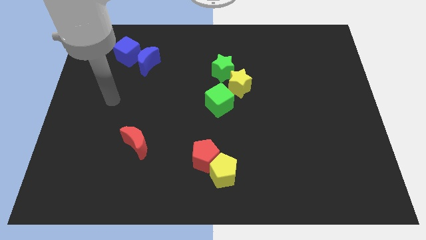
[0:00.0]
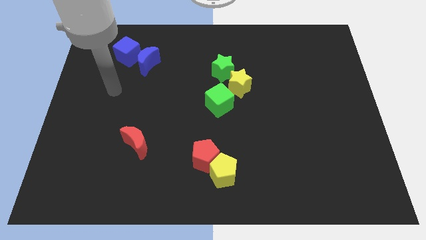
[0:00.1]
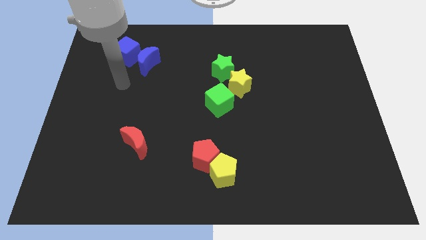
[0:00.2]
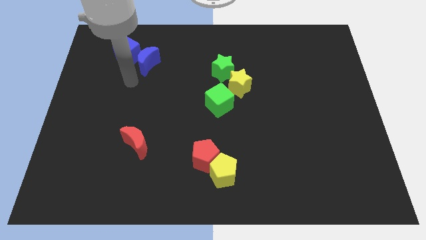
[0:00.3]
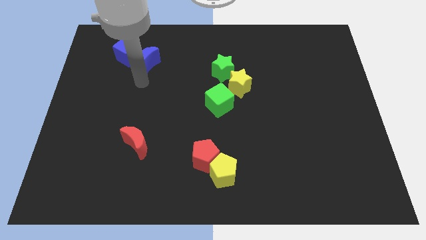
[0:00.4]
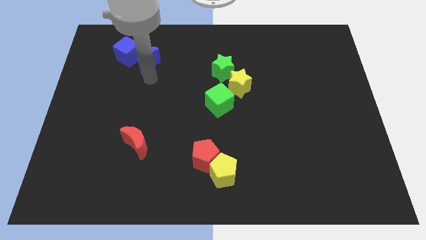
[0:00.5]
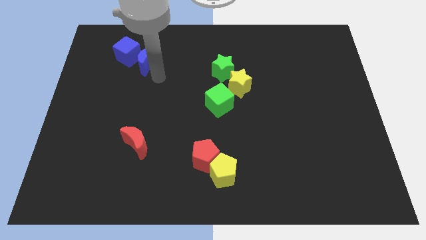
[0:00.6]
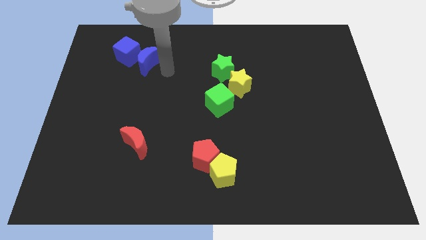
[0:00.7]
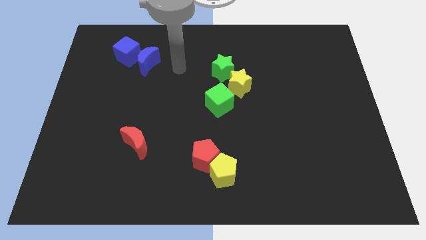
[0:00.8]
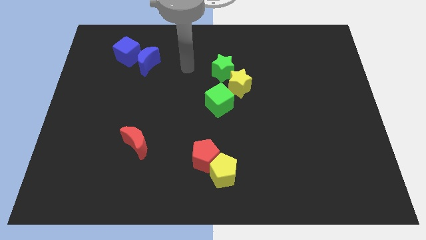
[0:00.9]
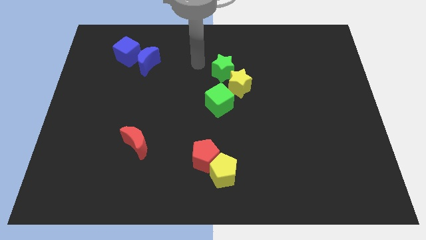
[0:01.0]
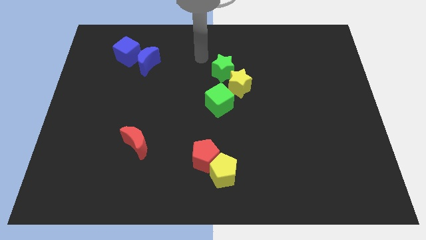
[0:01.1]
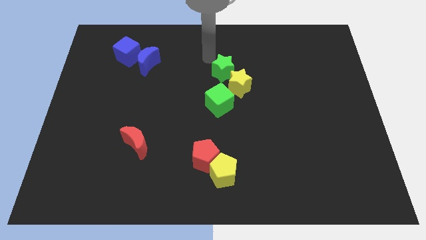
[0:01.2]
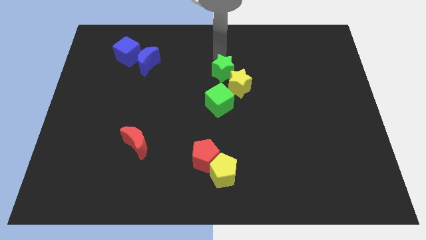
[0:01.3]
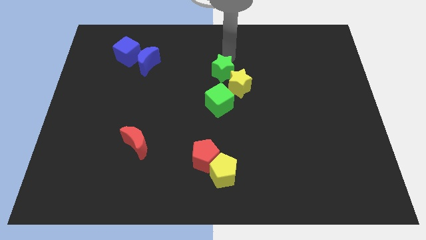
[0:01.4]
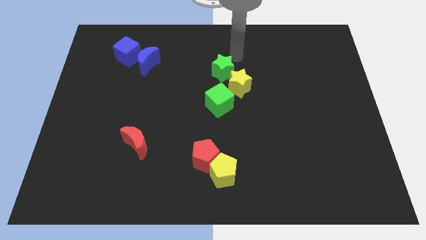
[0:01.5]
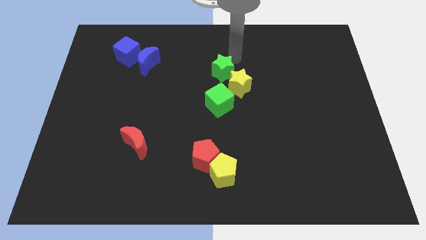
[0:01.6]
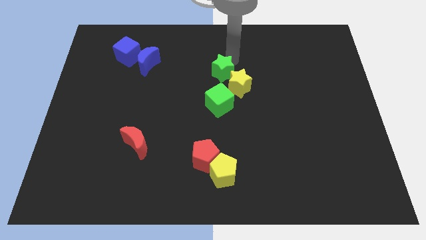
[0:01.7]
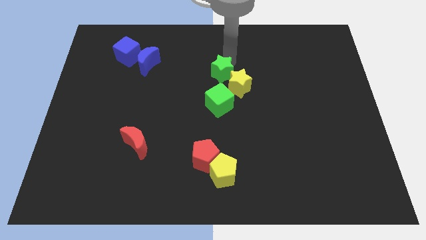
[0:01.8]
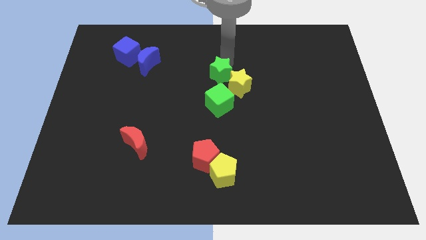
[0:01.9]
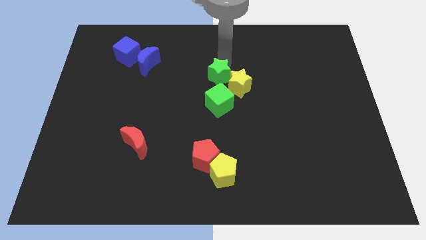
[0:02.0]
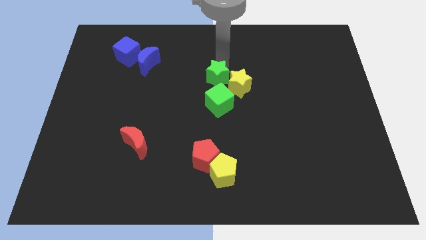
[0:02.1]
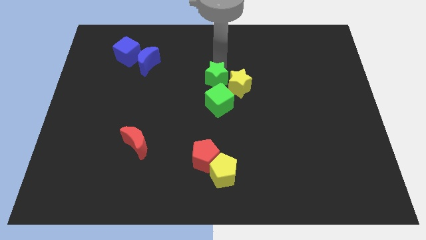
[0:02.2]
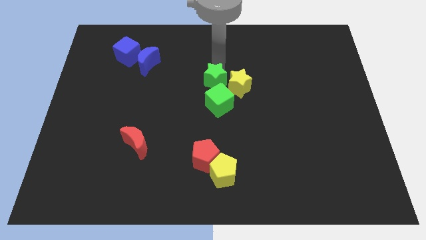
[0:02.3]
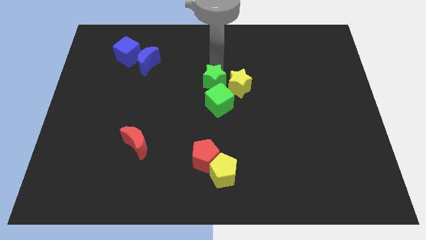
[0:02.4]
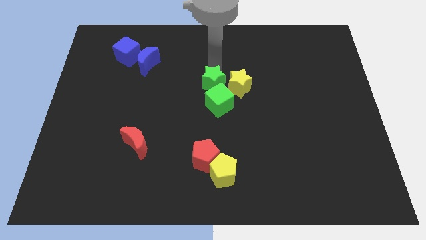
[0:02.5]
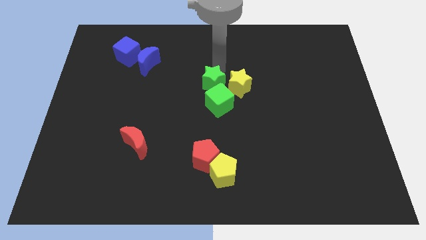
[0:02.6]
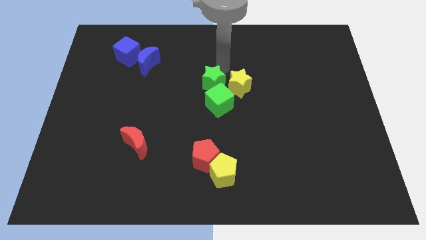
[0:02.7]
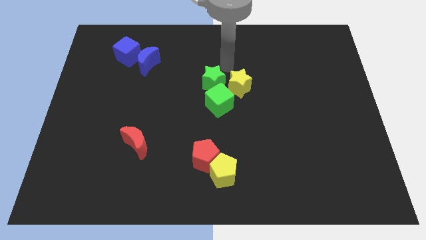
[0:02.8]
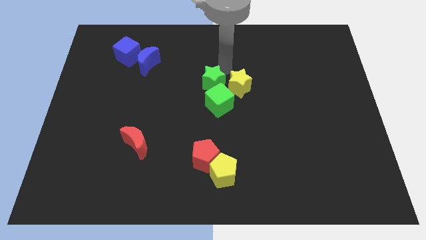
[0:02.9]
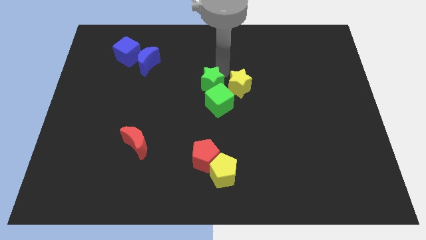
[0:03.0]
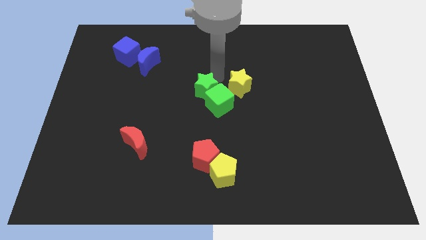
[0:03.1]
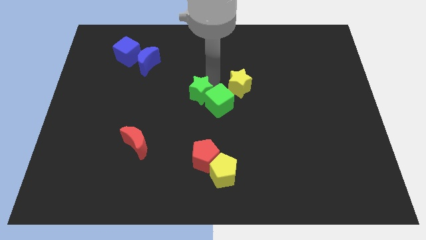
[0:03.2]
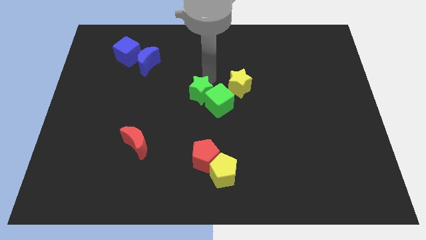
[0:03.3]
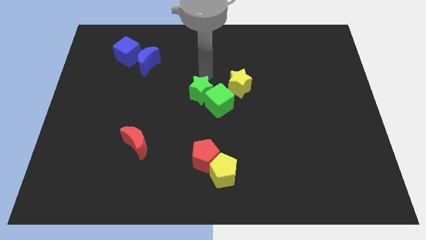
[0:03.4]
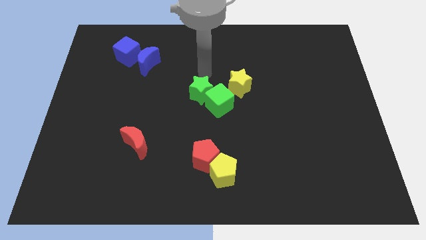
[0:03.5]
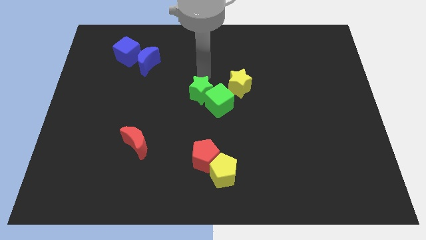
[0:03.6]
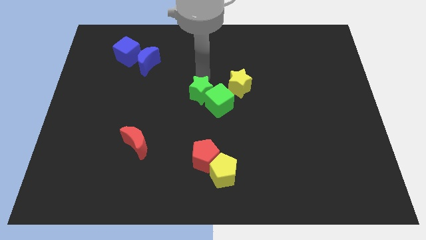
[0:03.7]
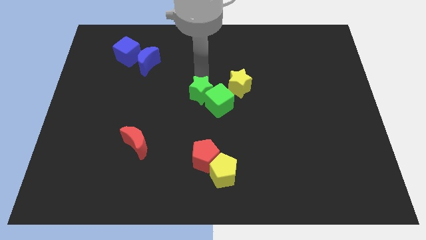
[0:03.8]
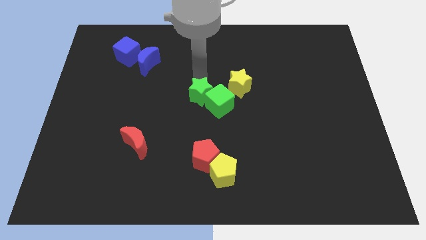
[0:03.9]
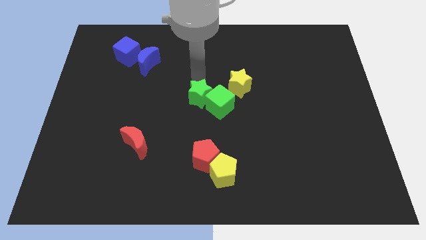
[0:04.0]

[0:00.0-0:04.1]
push the green star slightly downwards

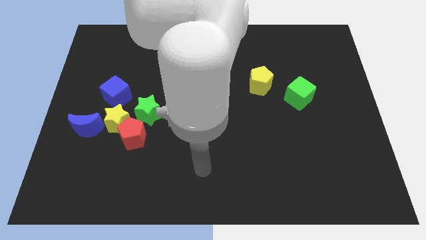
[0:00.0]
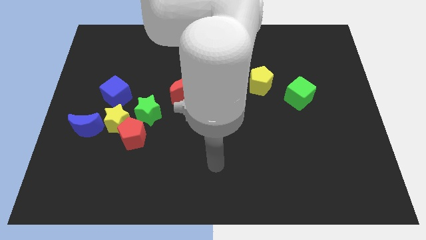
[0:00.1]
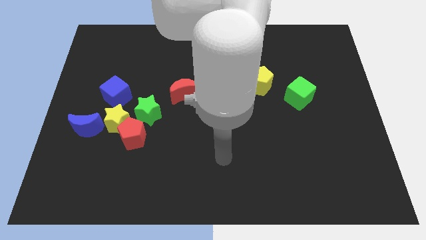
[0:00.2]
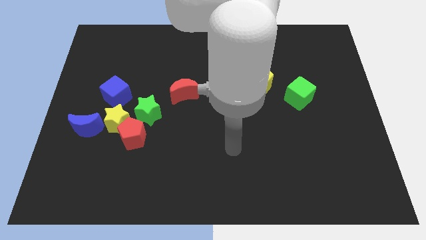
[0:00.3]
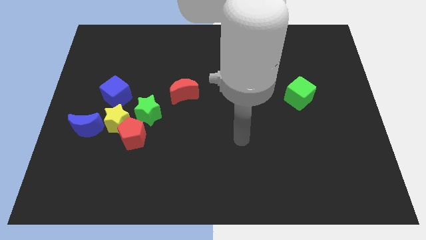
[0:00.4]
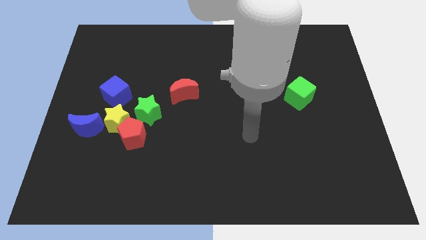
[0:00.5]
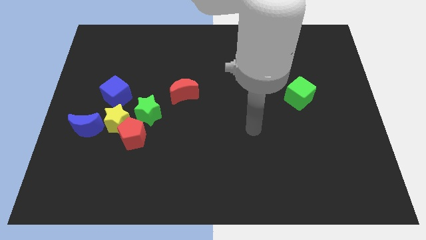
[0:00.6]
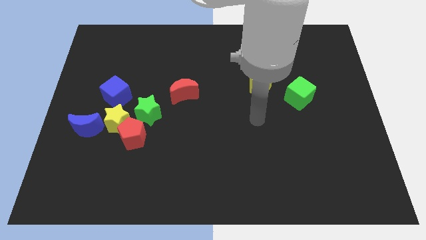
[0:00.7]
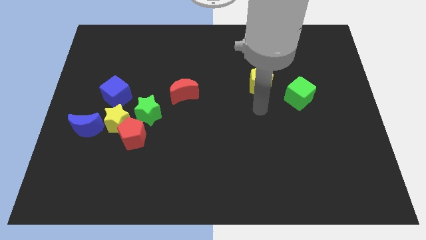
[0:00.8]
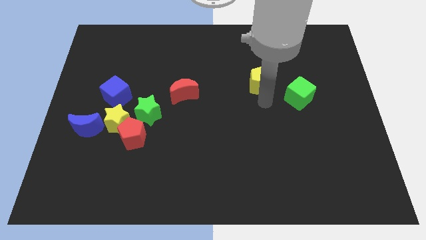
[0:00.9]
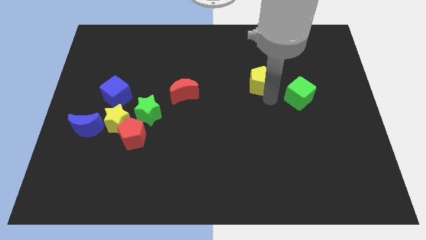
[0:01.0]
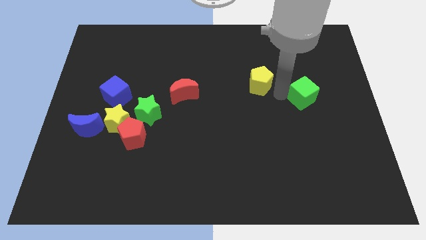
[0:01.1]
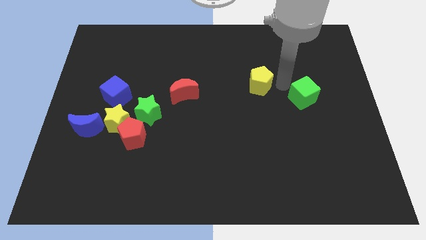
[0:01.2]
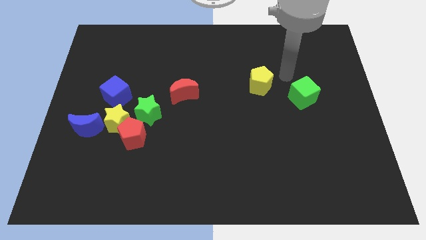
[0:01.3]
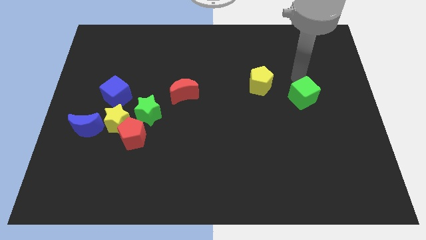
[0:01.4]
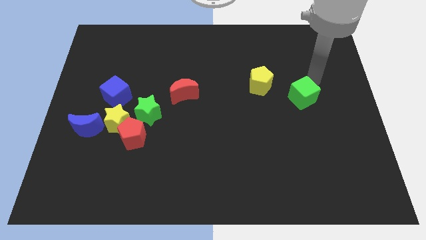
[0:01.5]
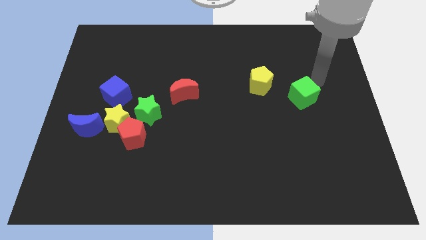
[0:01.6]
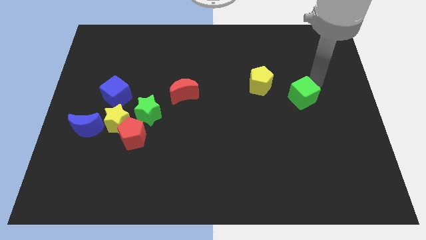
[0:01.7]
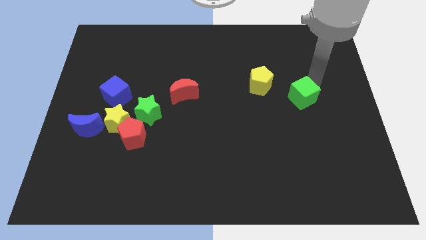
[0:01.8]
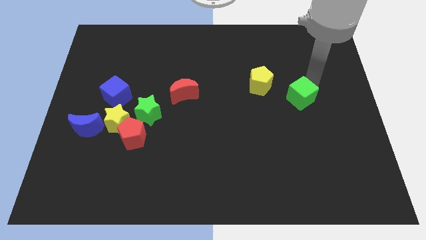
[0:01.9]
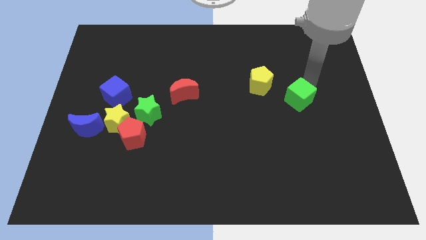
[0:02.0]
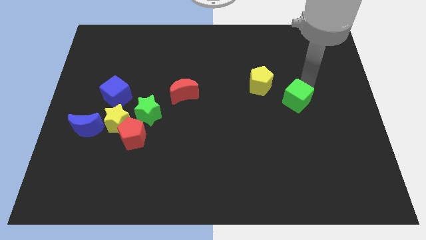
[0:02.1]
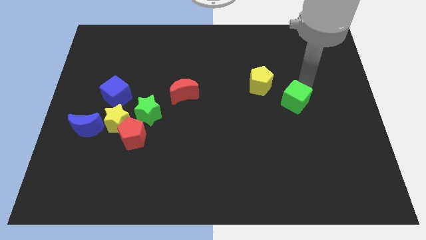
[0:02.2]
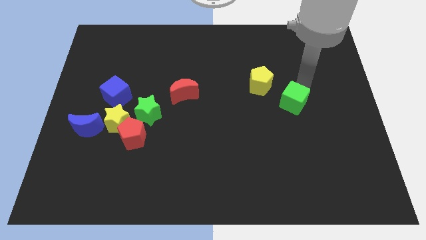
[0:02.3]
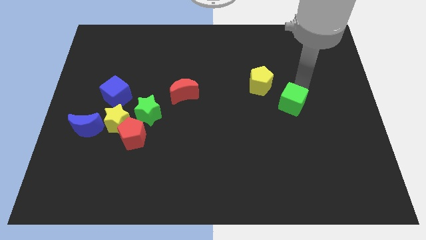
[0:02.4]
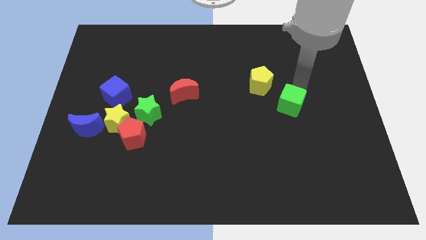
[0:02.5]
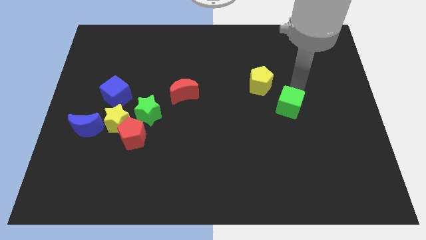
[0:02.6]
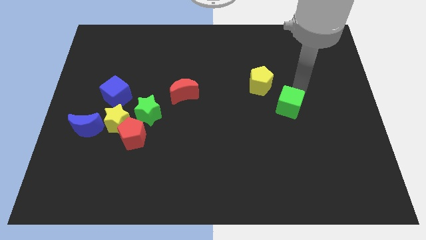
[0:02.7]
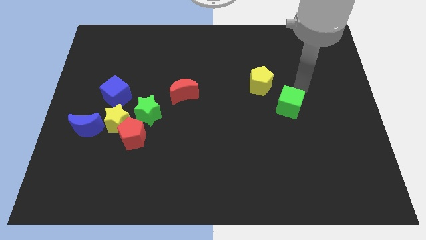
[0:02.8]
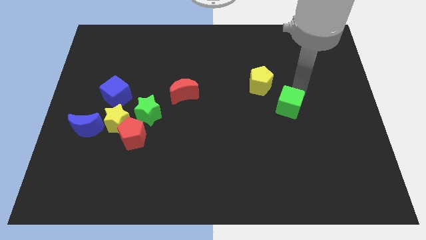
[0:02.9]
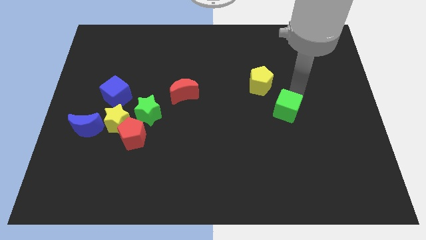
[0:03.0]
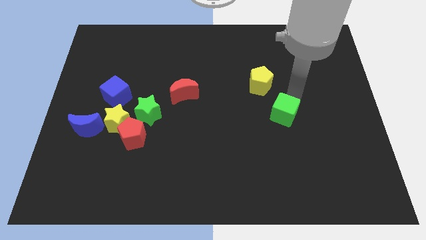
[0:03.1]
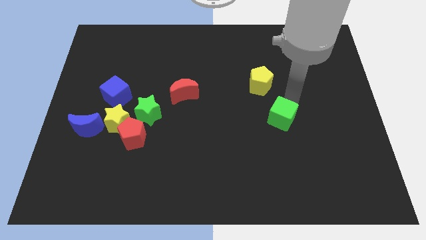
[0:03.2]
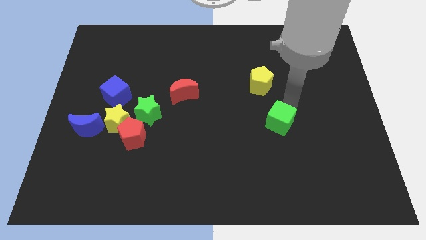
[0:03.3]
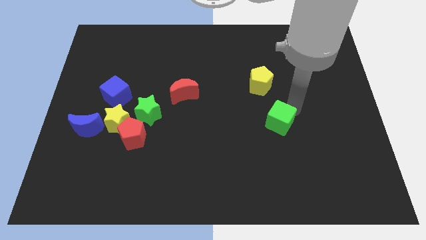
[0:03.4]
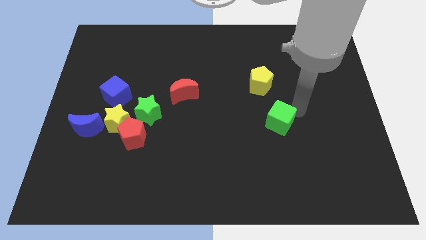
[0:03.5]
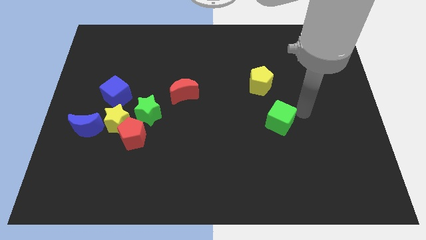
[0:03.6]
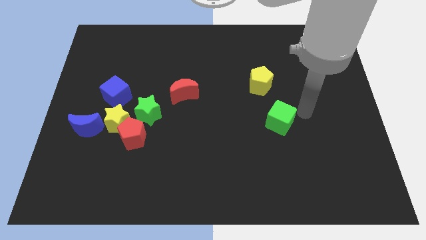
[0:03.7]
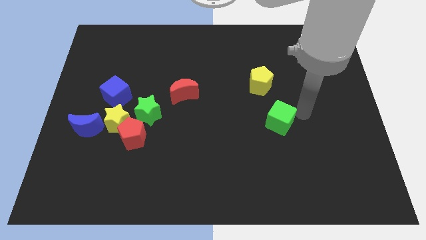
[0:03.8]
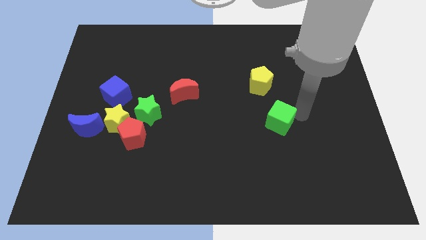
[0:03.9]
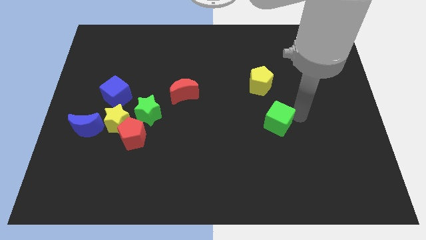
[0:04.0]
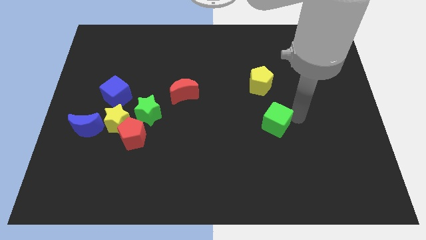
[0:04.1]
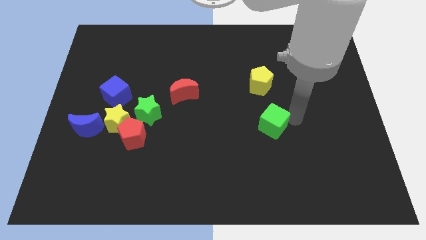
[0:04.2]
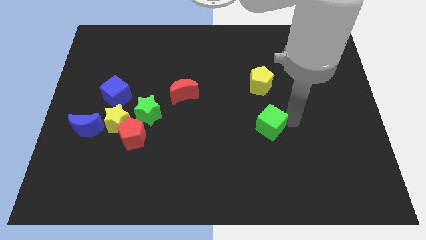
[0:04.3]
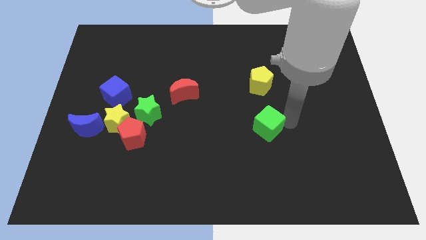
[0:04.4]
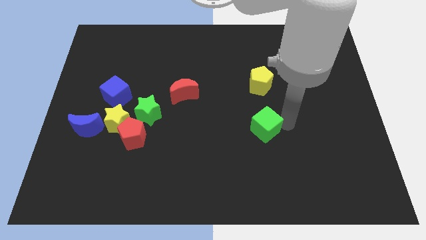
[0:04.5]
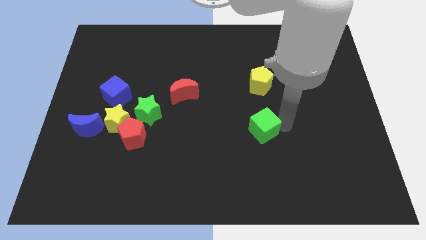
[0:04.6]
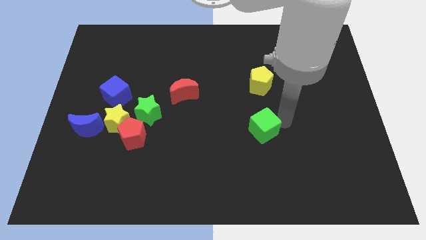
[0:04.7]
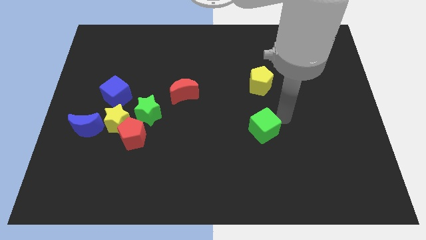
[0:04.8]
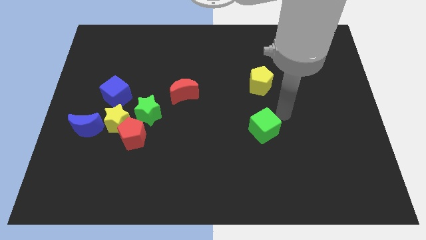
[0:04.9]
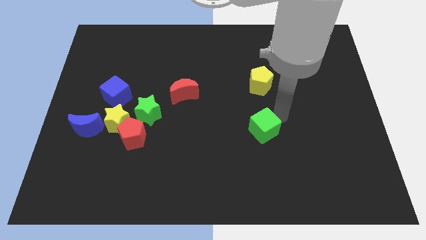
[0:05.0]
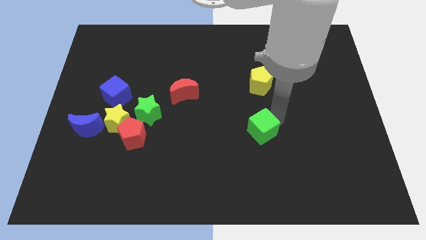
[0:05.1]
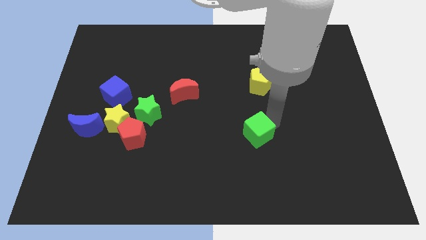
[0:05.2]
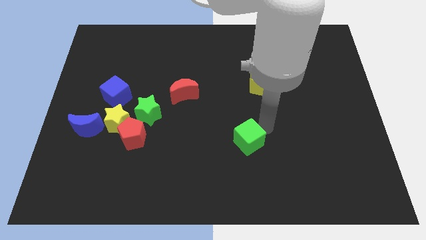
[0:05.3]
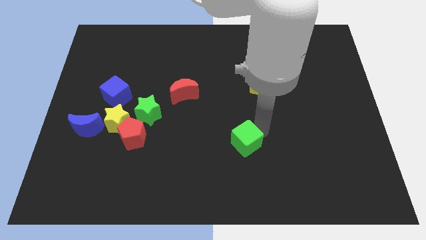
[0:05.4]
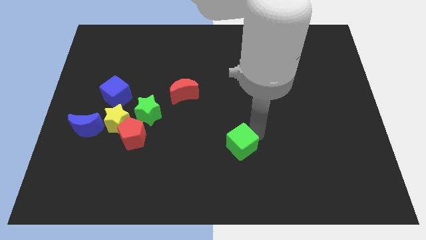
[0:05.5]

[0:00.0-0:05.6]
slide the green cube downwards and then left
